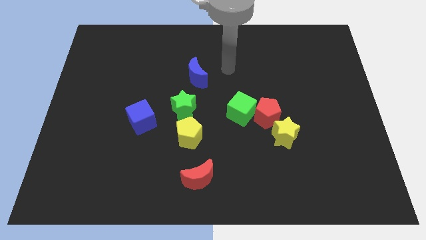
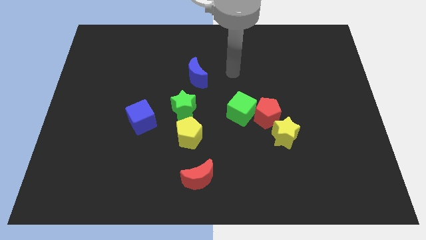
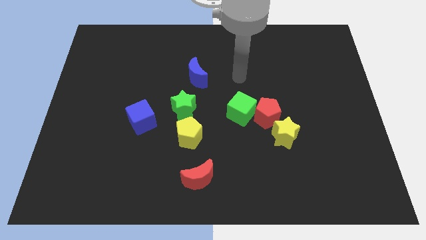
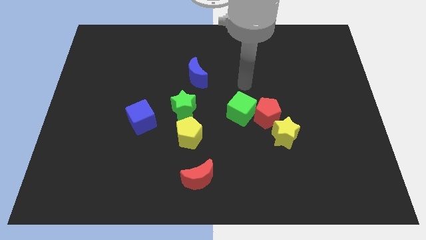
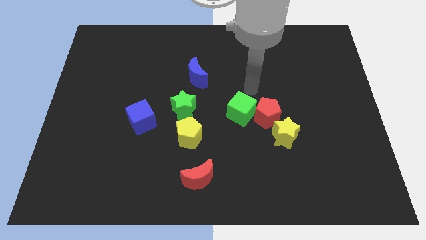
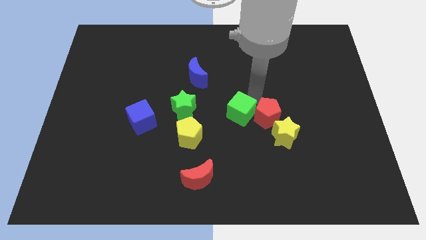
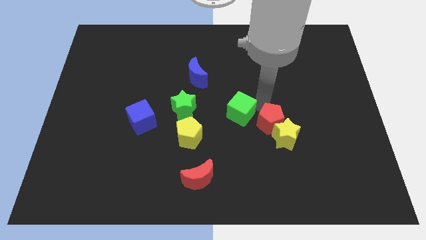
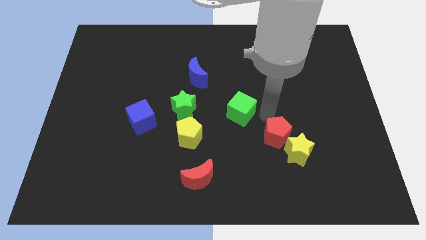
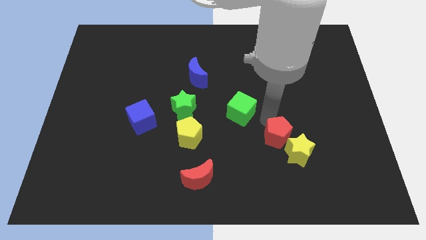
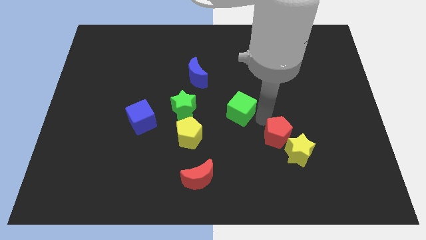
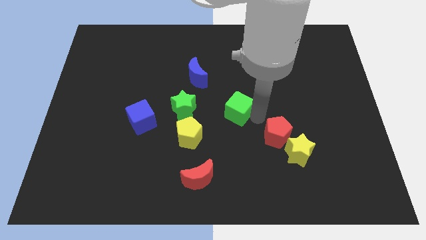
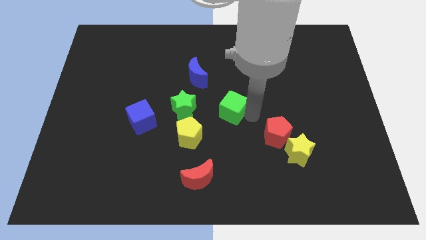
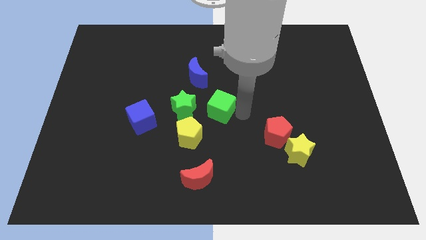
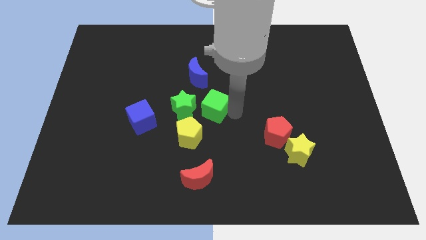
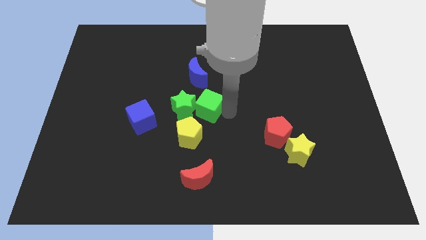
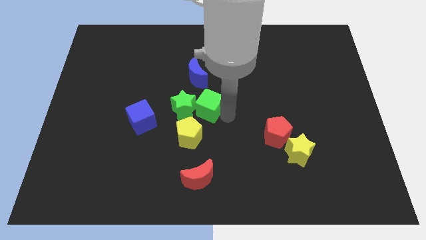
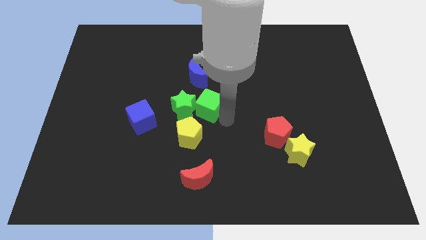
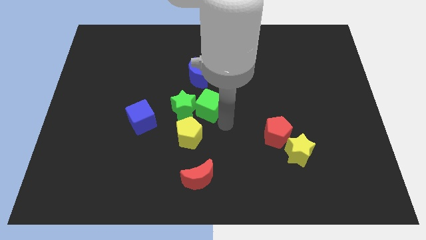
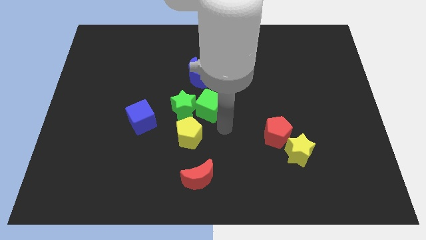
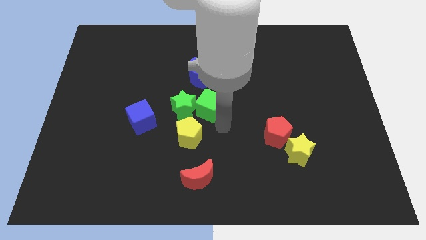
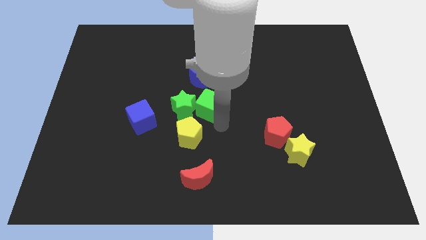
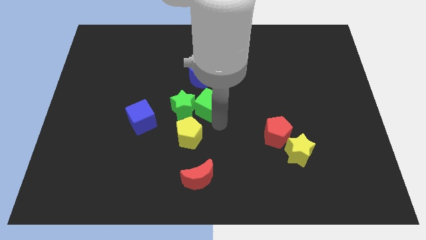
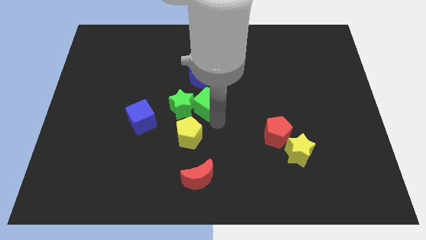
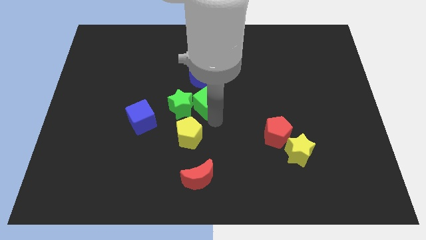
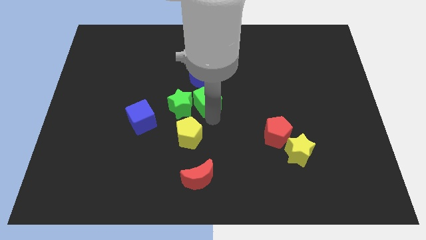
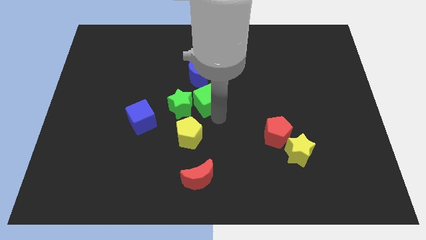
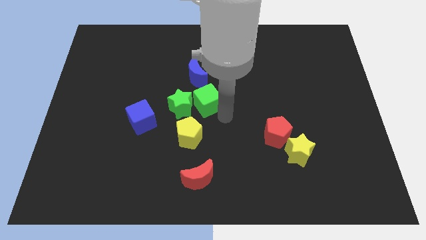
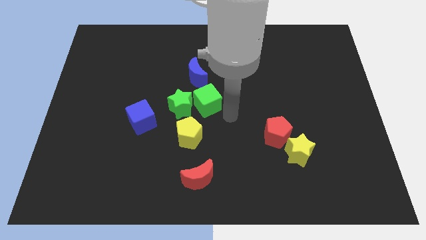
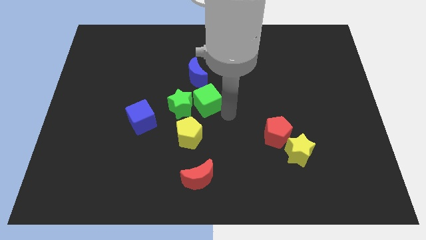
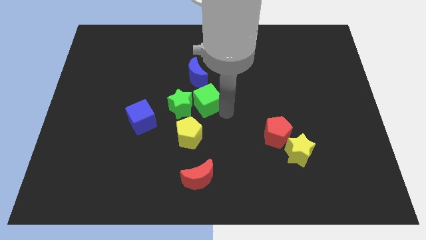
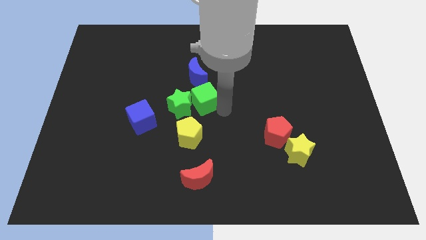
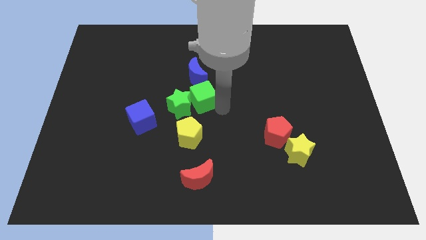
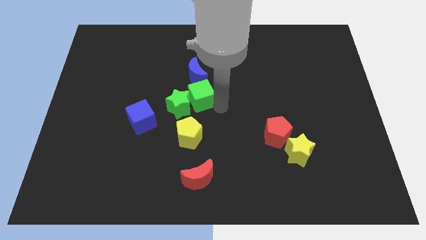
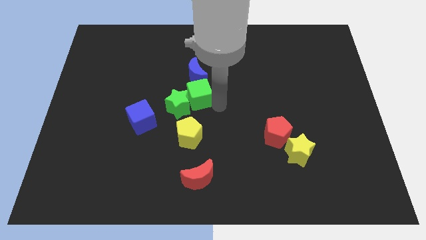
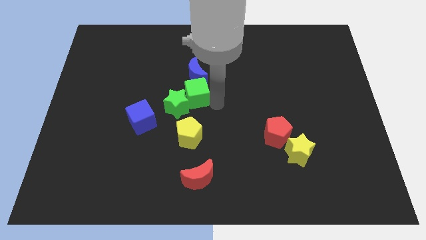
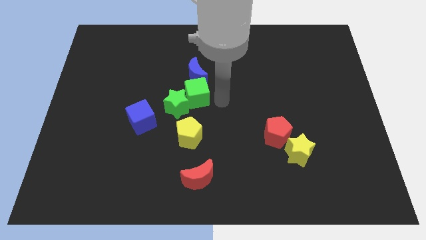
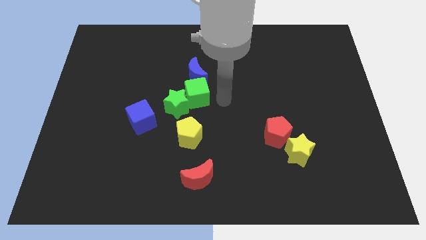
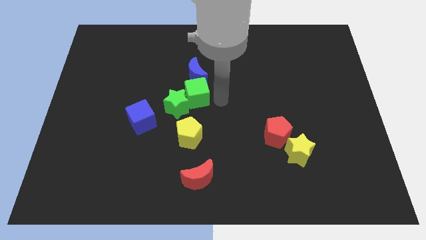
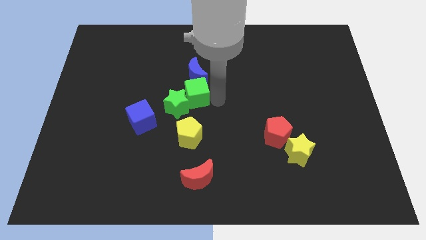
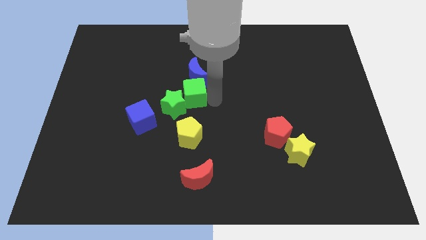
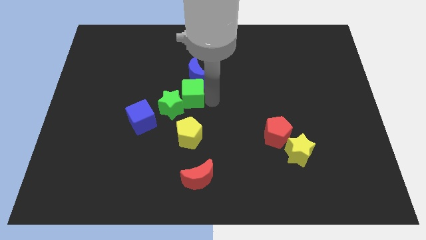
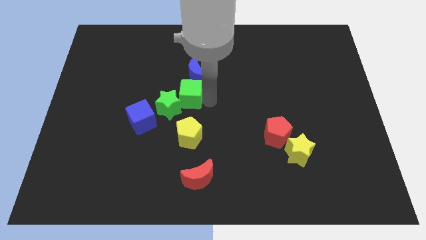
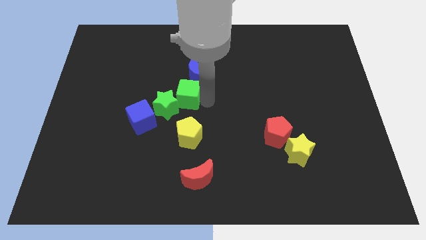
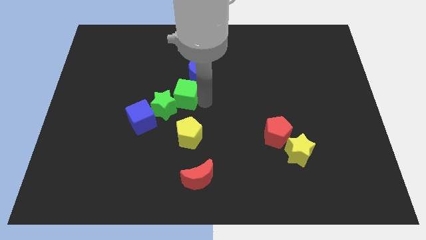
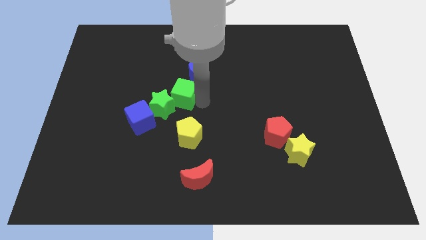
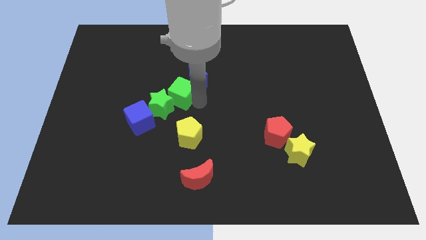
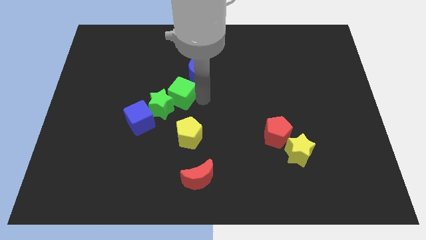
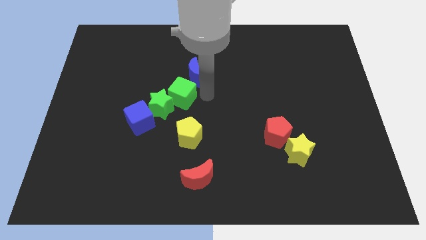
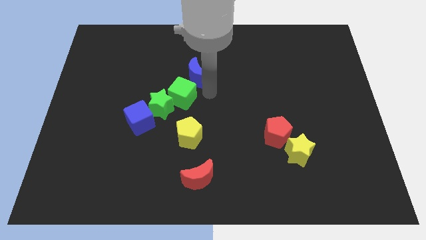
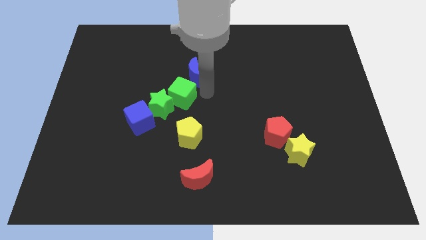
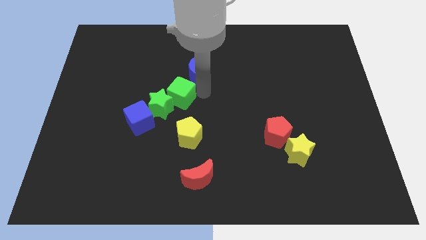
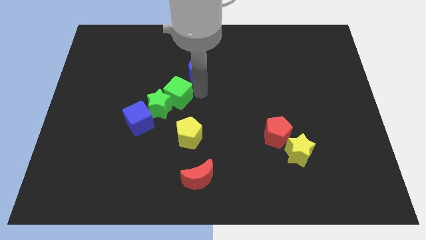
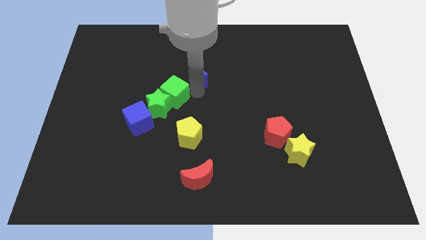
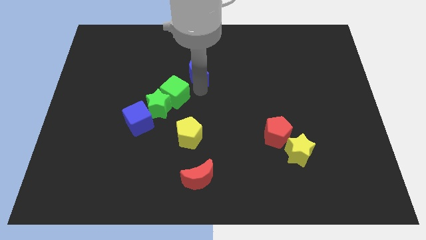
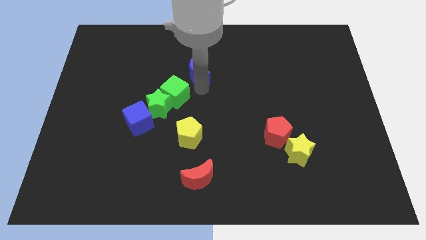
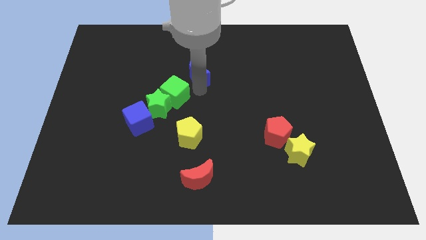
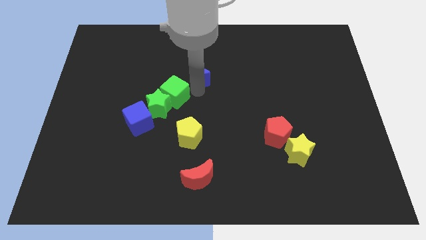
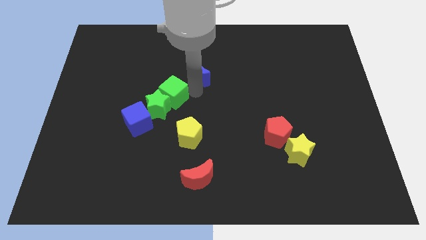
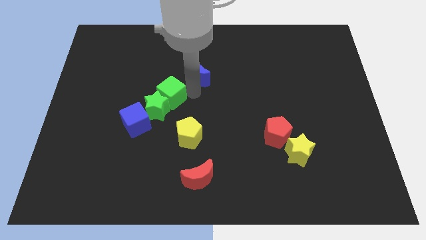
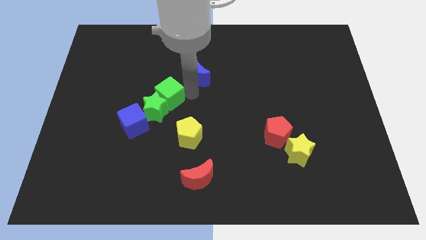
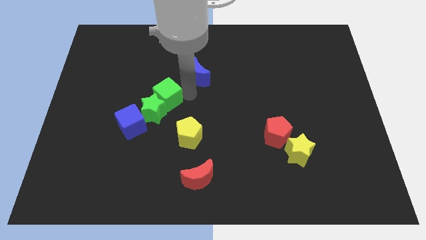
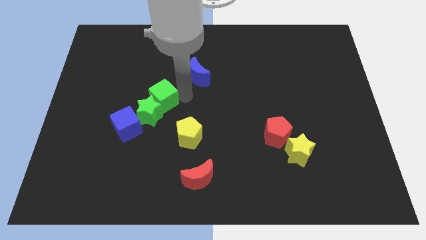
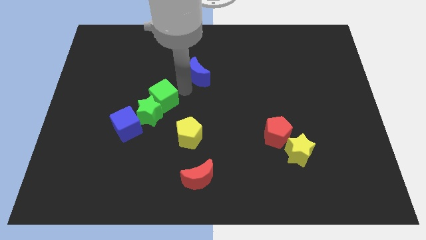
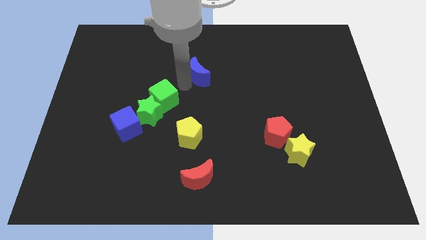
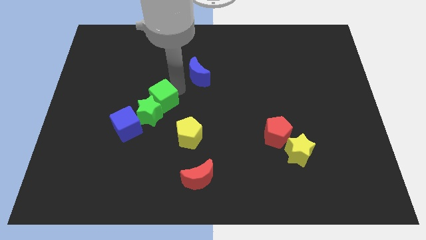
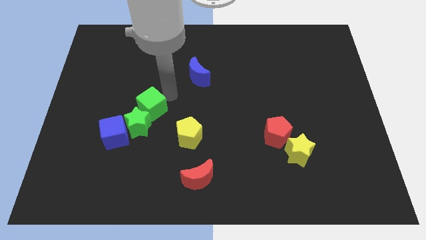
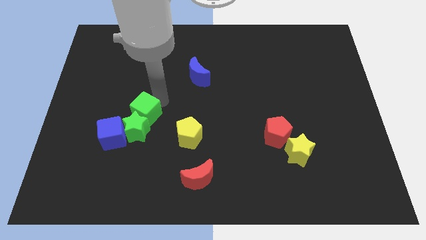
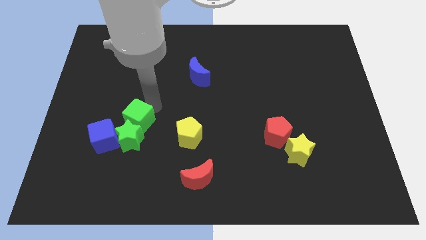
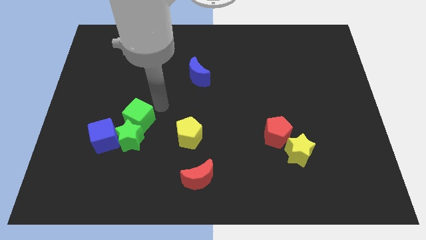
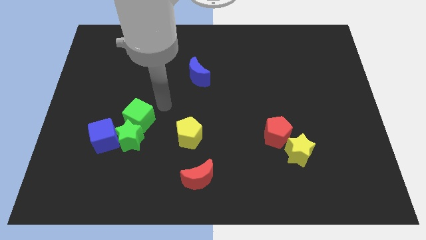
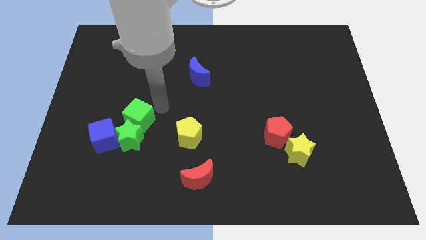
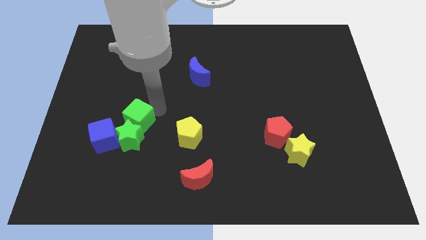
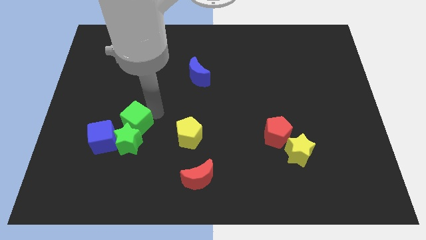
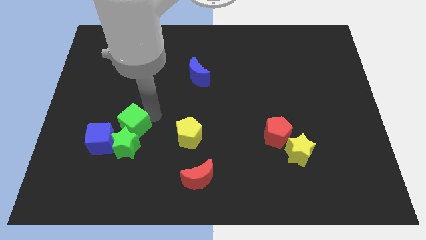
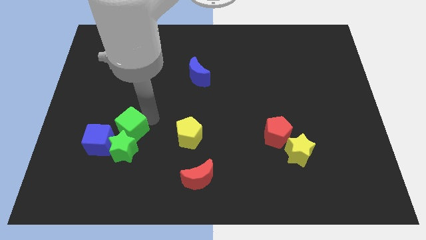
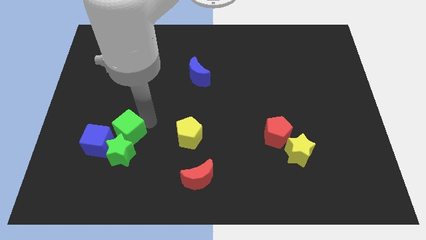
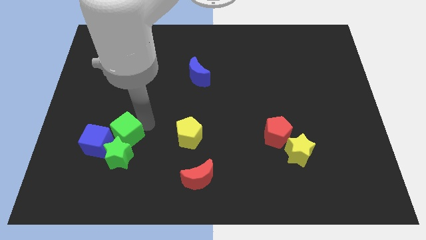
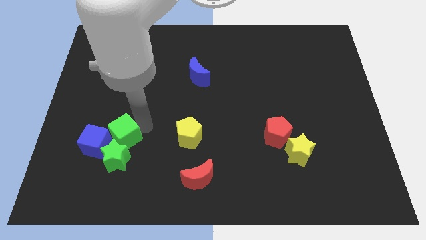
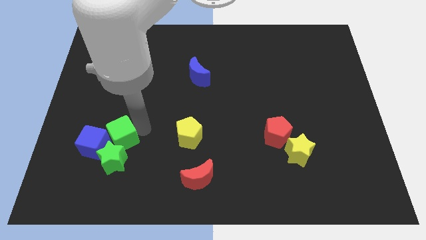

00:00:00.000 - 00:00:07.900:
move the green cube to the blue cube
